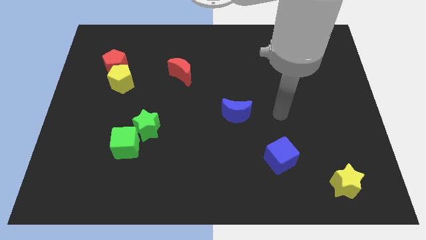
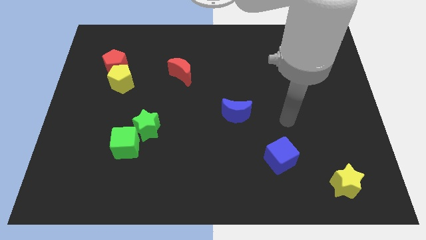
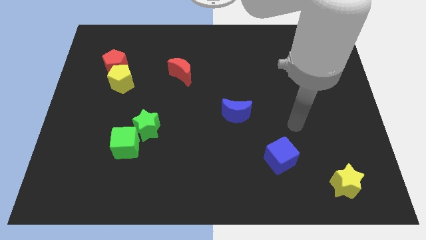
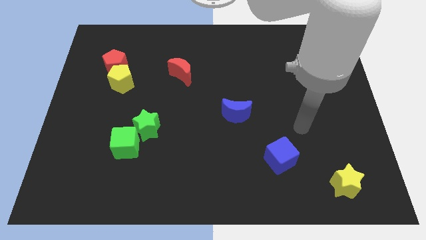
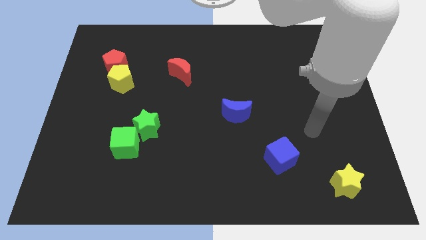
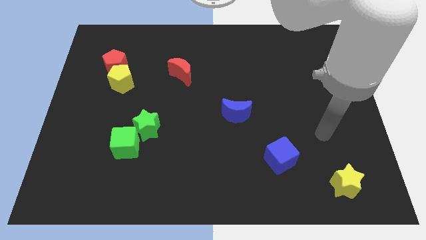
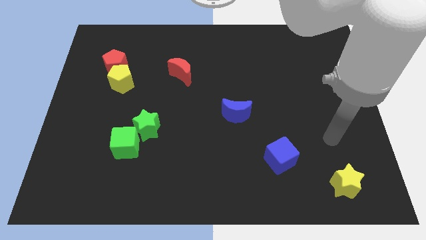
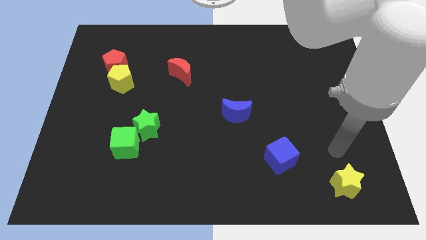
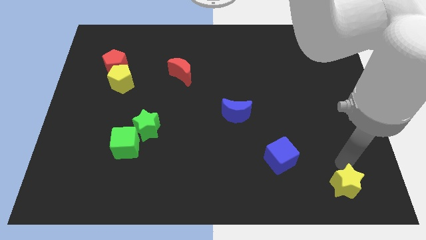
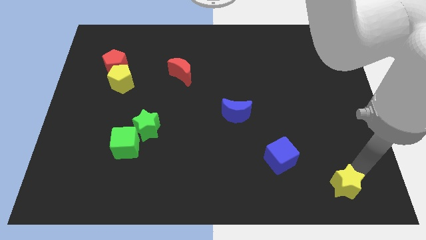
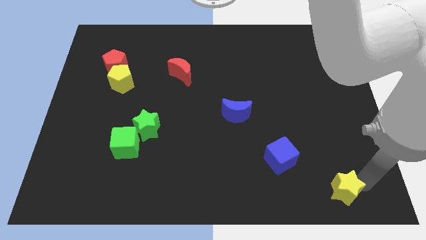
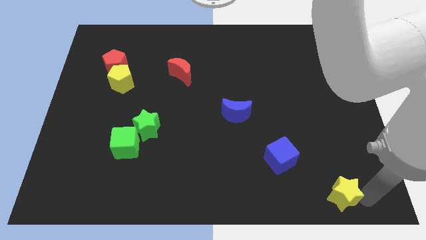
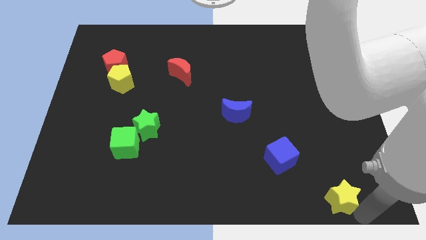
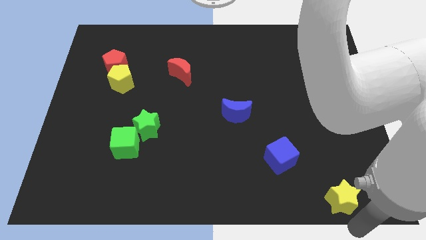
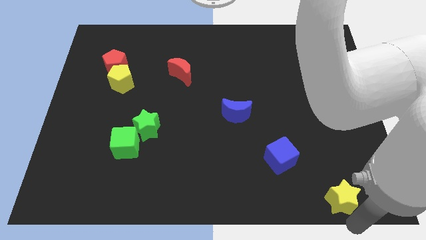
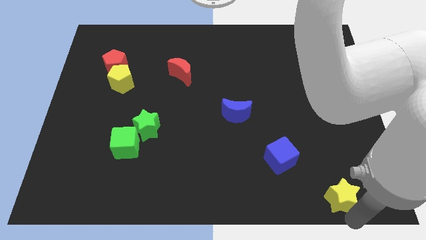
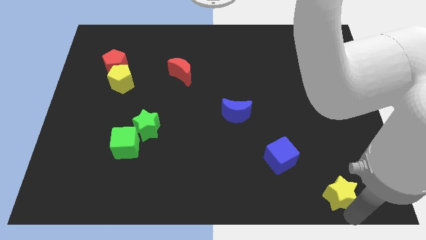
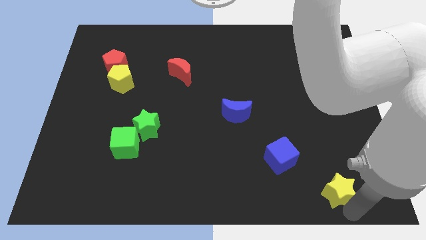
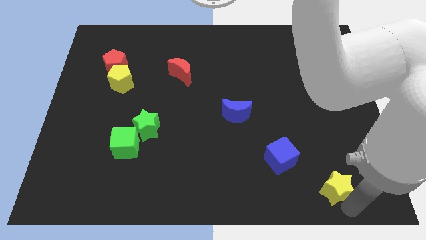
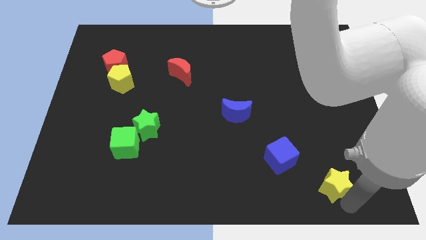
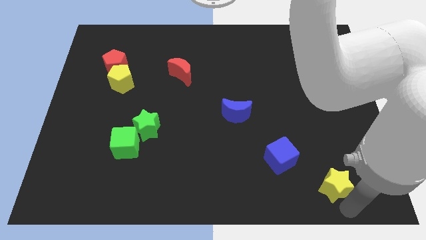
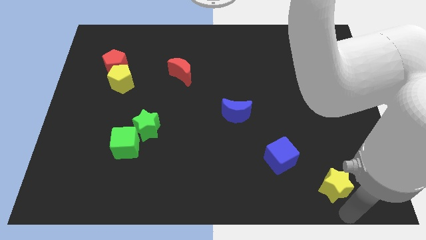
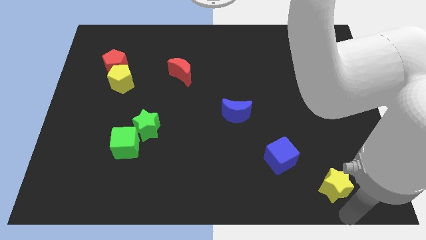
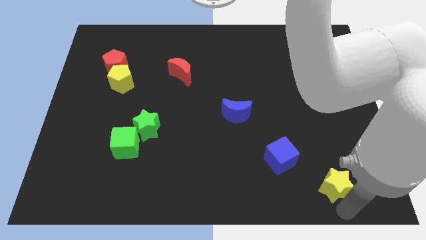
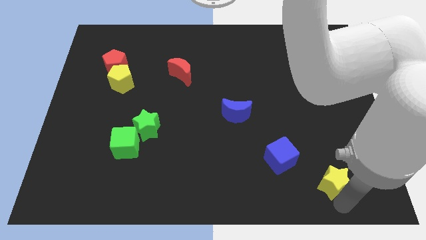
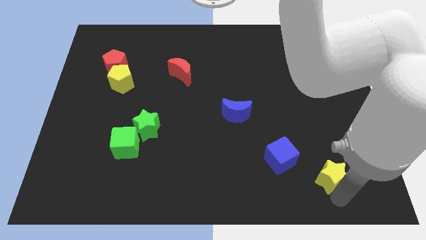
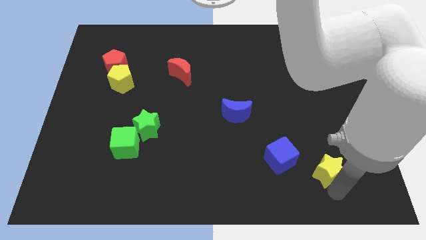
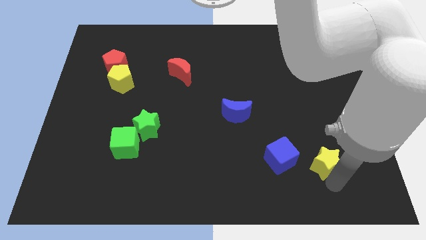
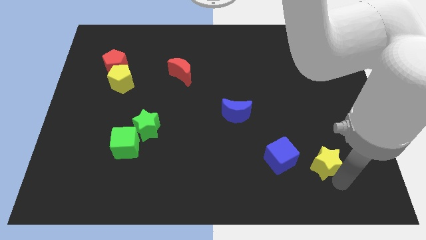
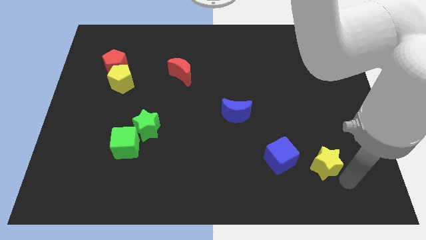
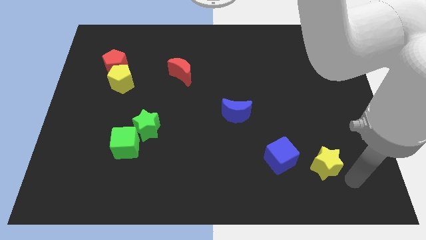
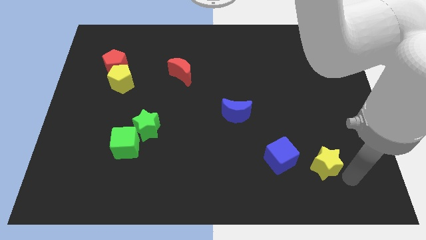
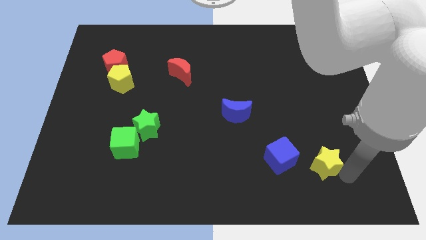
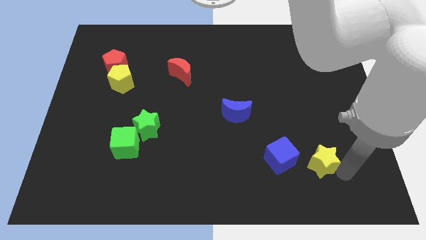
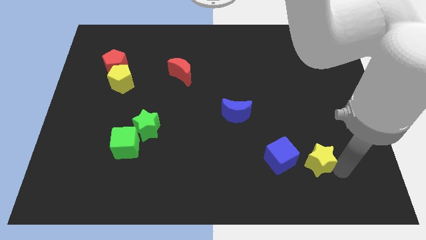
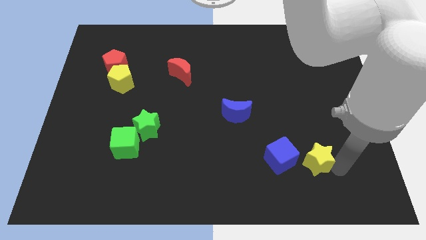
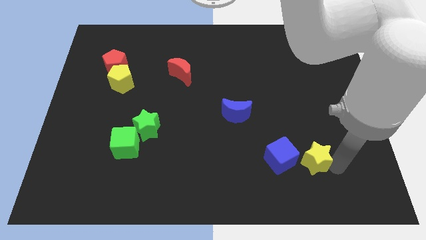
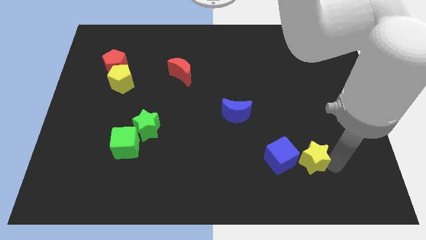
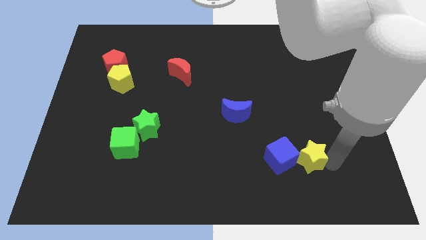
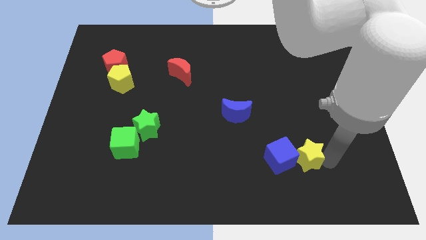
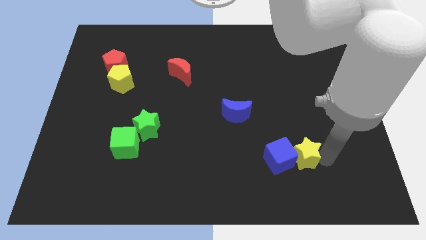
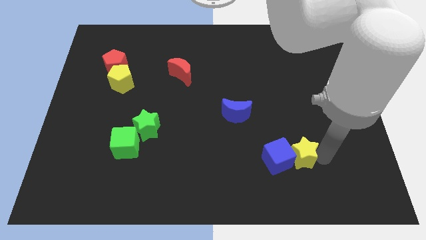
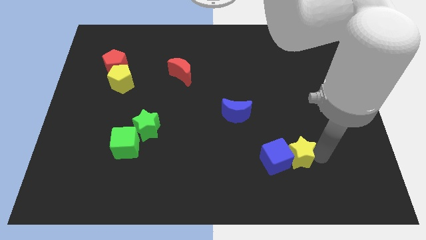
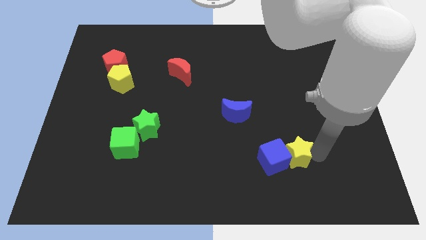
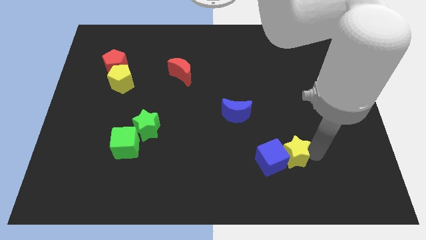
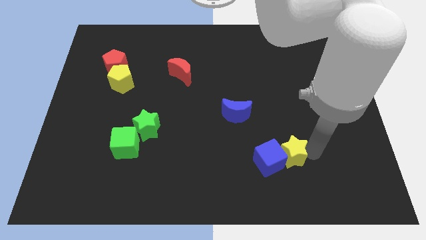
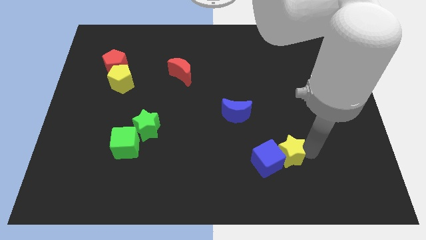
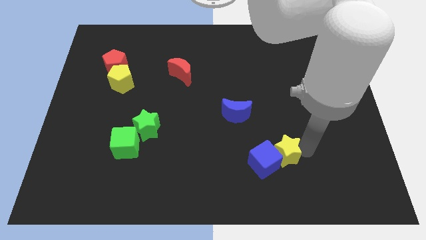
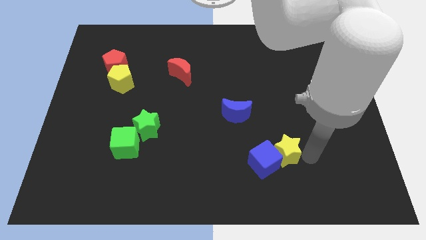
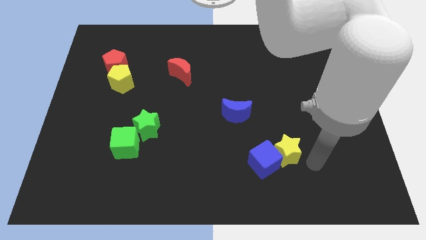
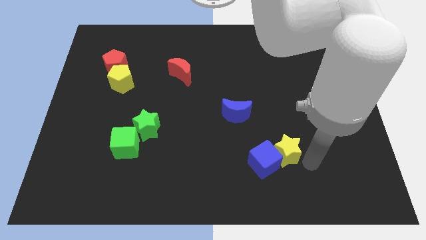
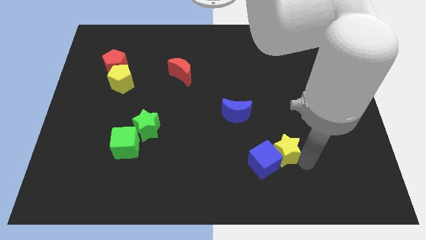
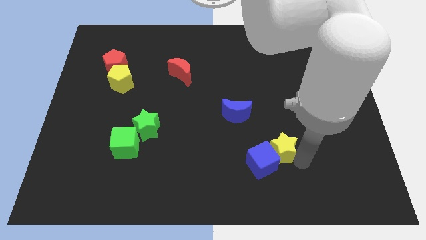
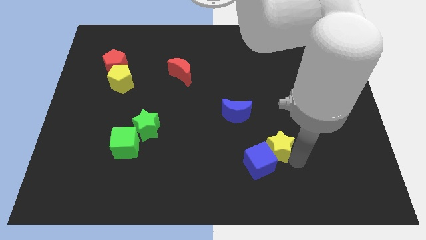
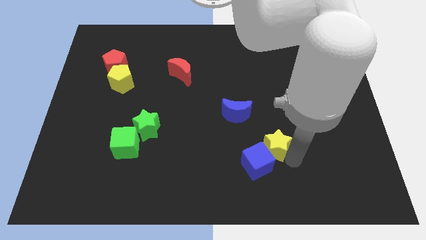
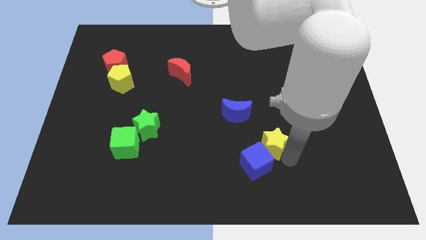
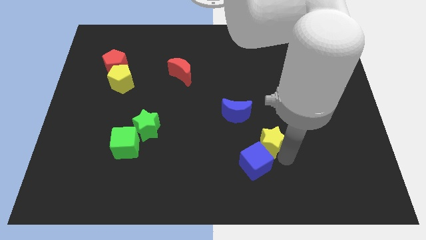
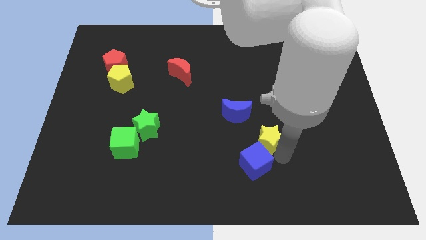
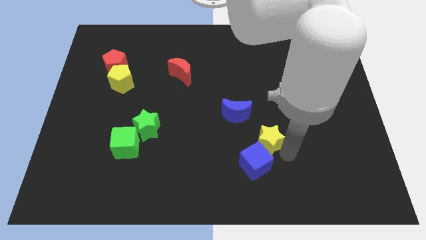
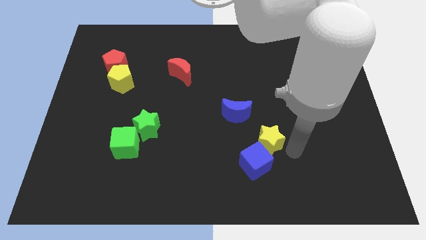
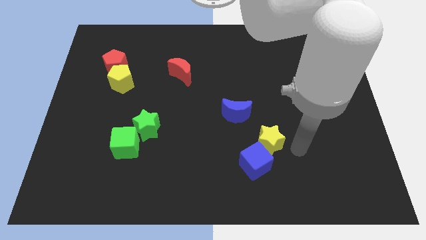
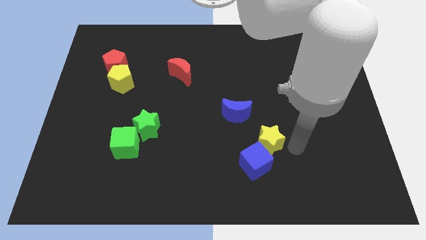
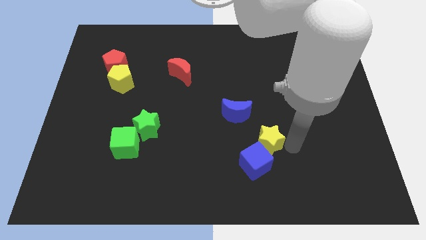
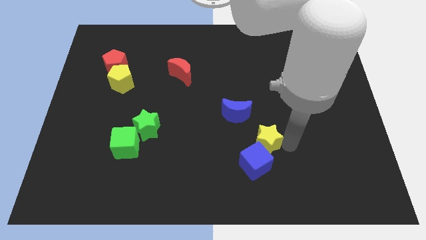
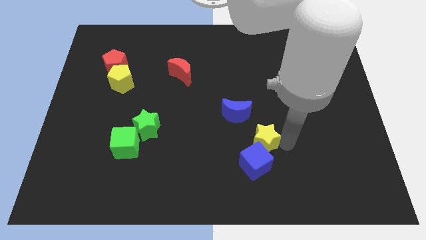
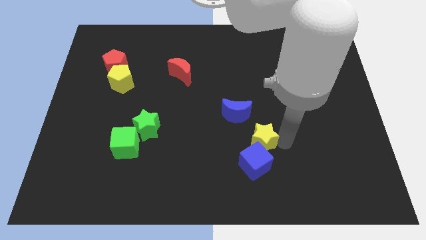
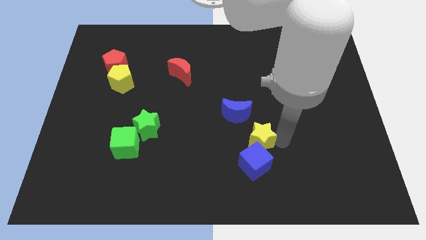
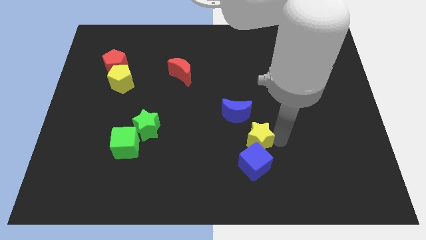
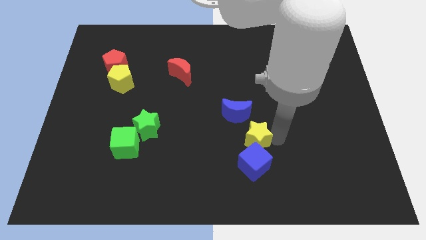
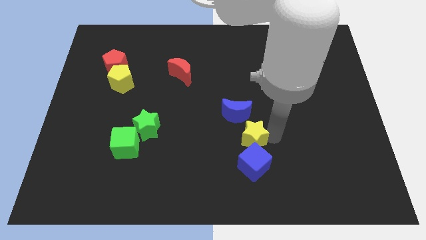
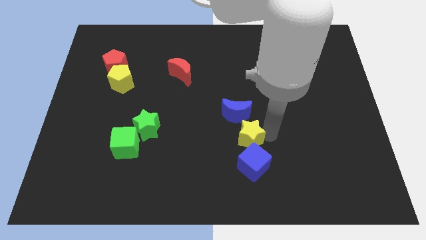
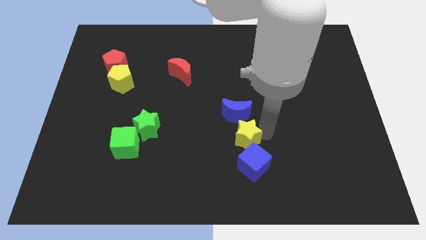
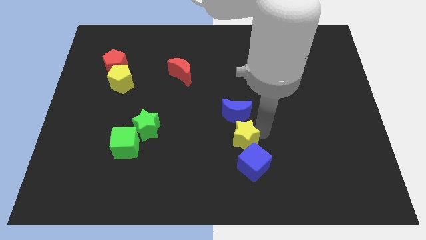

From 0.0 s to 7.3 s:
put the yellow star to the middle
